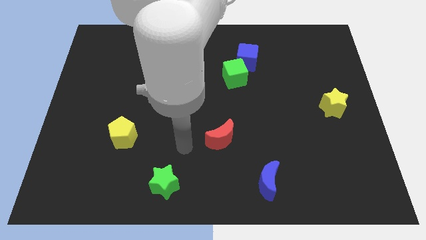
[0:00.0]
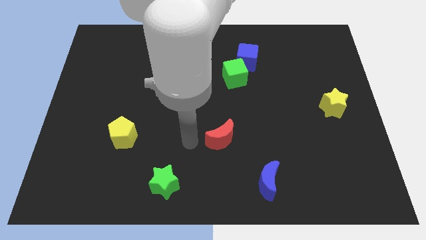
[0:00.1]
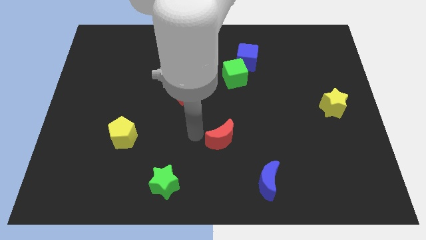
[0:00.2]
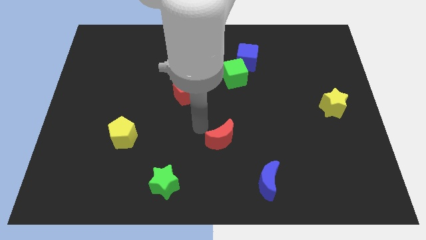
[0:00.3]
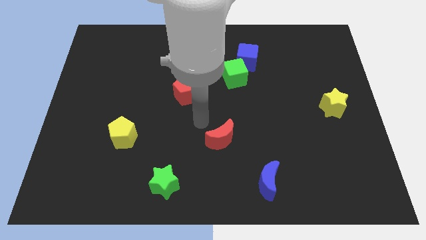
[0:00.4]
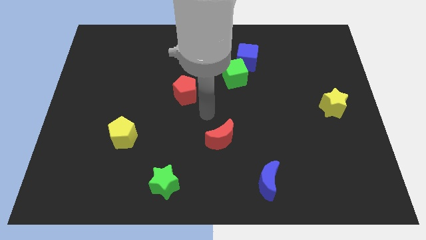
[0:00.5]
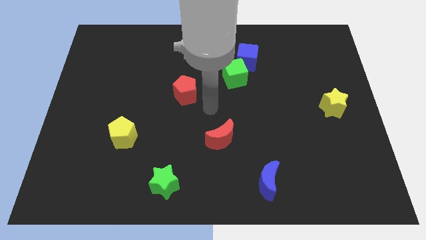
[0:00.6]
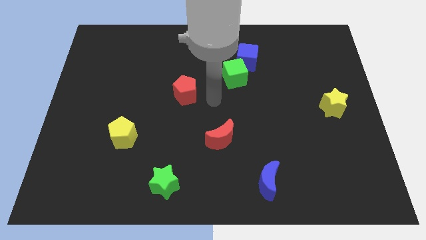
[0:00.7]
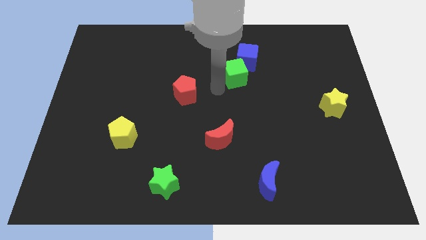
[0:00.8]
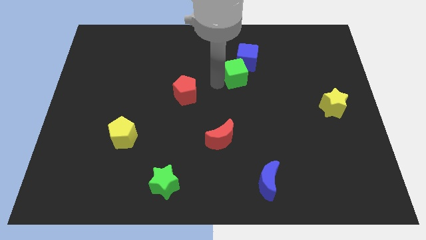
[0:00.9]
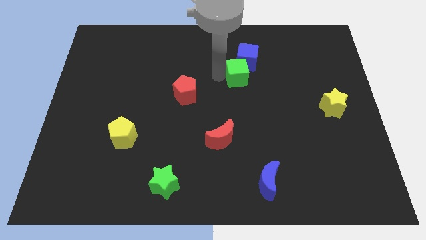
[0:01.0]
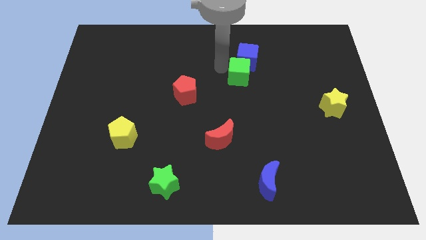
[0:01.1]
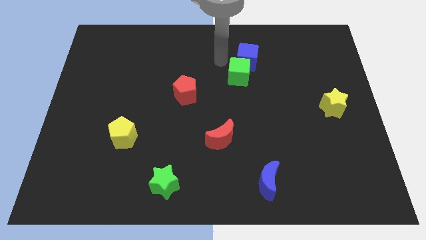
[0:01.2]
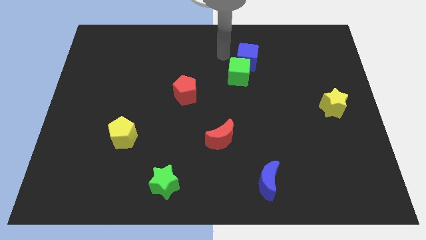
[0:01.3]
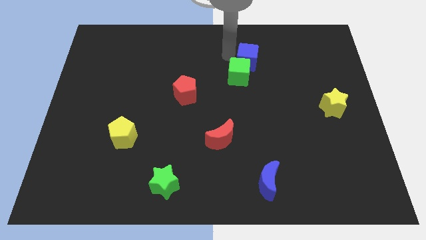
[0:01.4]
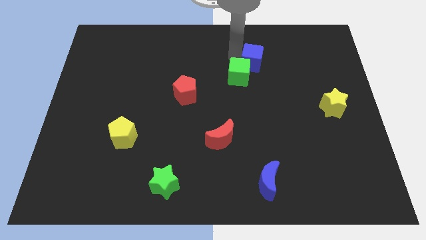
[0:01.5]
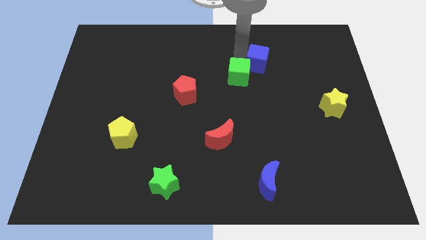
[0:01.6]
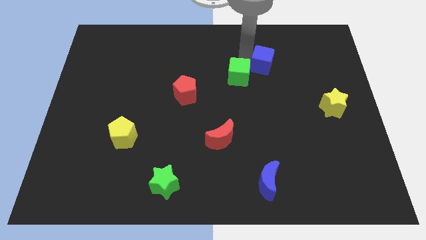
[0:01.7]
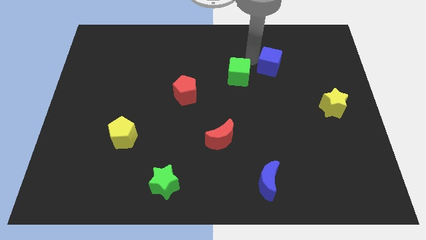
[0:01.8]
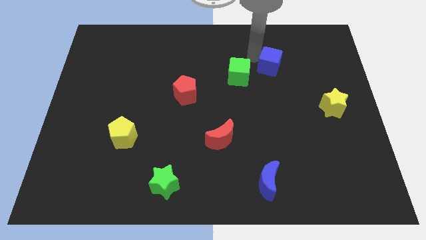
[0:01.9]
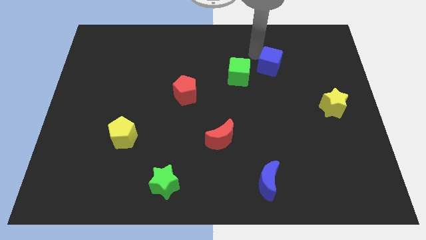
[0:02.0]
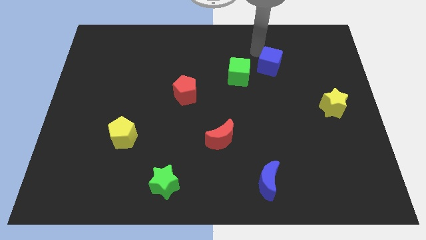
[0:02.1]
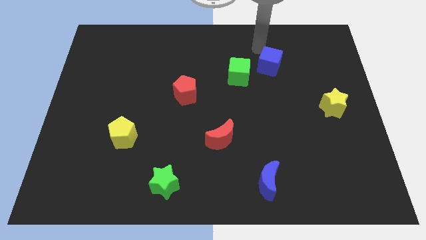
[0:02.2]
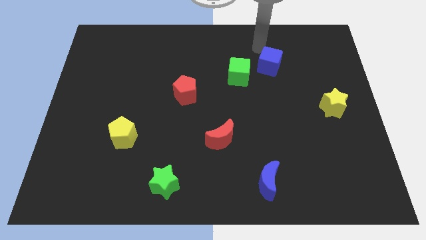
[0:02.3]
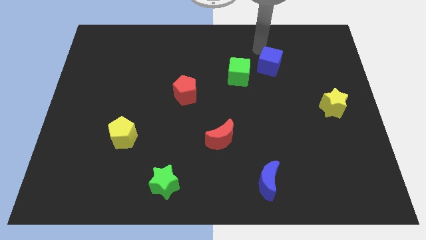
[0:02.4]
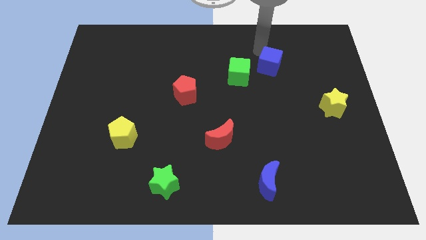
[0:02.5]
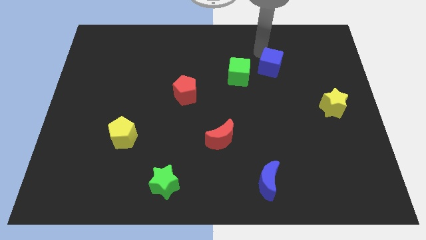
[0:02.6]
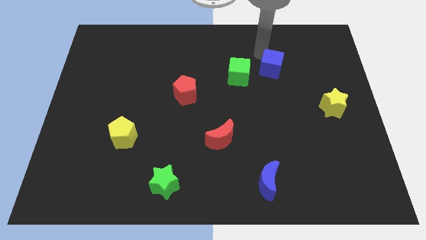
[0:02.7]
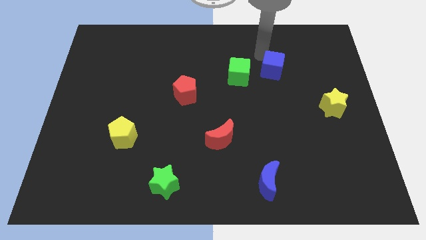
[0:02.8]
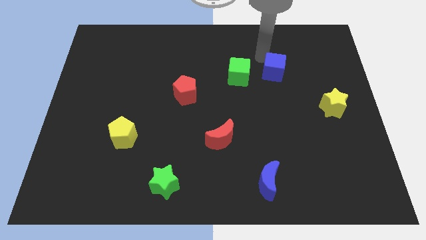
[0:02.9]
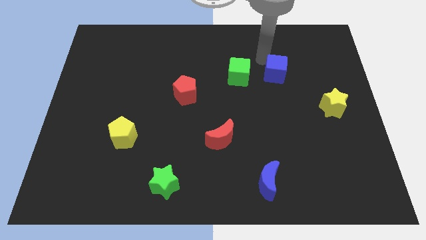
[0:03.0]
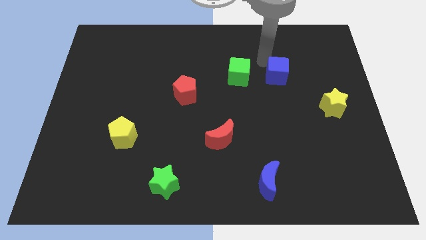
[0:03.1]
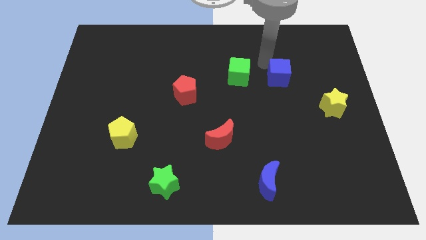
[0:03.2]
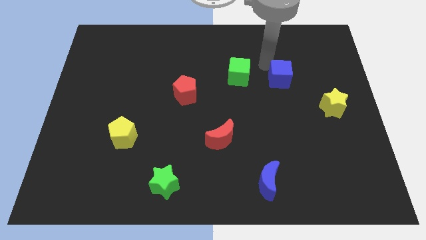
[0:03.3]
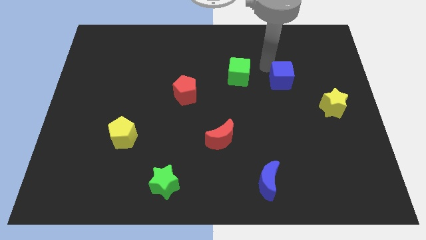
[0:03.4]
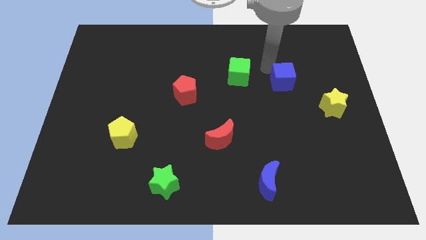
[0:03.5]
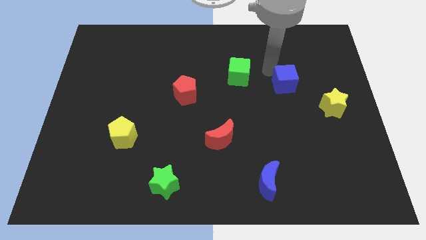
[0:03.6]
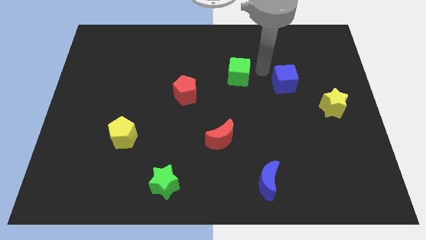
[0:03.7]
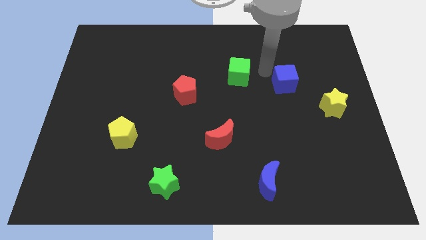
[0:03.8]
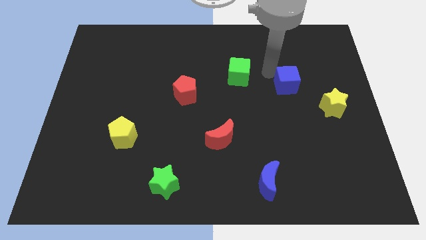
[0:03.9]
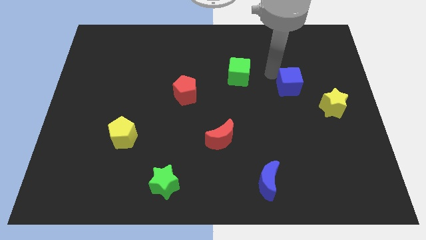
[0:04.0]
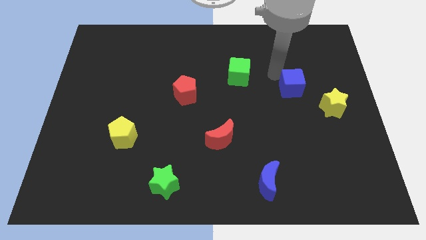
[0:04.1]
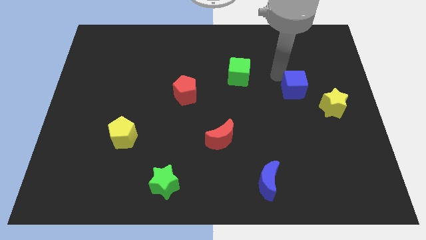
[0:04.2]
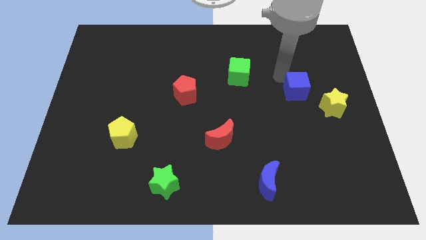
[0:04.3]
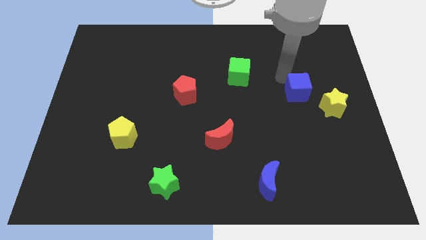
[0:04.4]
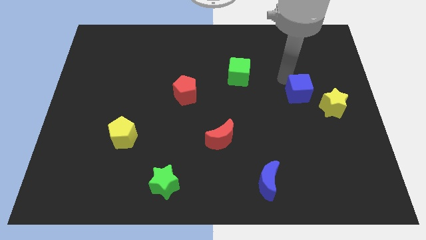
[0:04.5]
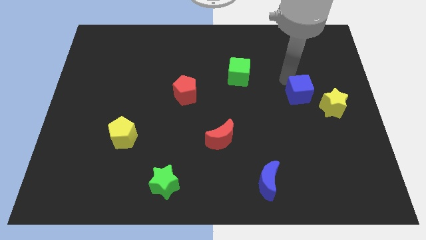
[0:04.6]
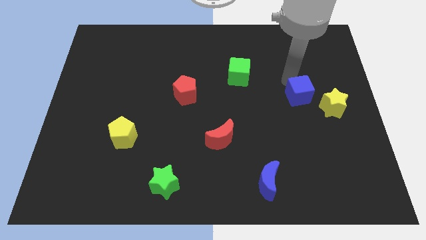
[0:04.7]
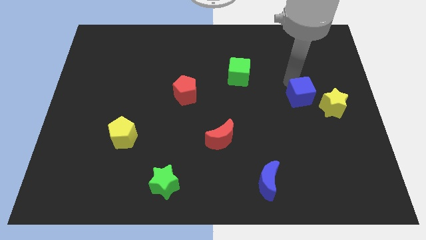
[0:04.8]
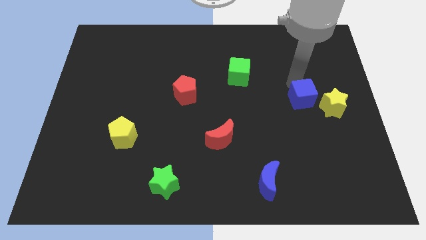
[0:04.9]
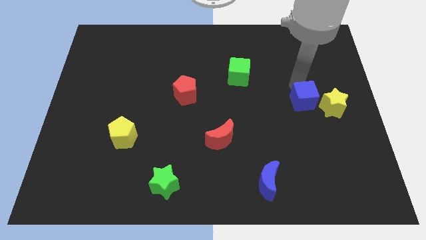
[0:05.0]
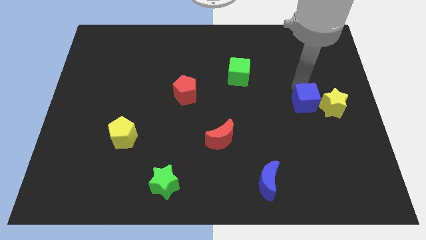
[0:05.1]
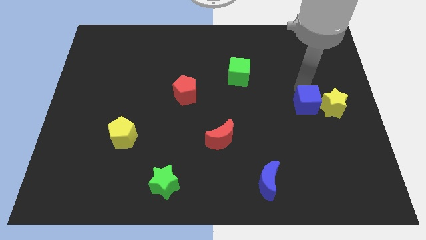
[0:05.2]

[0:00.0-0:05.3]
slide the blue cube next to the yellow star

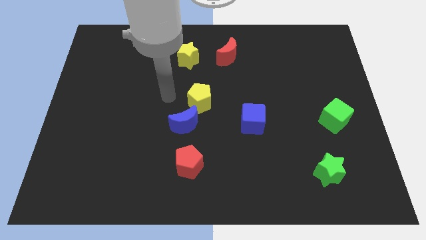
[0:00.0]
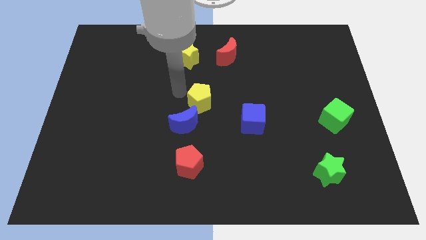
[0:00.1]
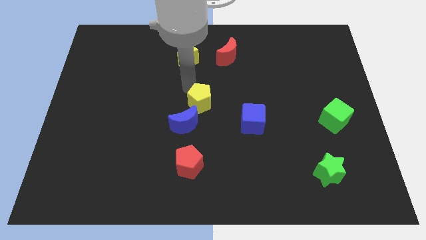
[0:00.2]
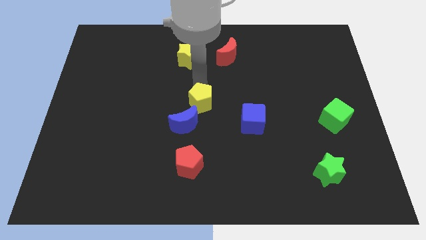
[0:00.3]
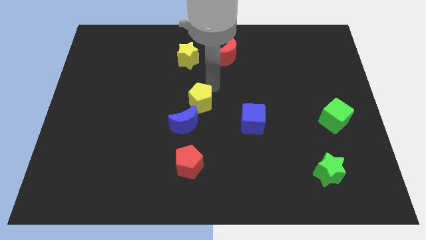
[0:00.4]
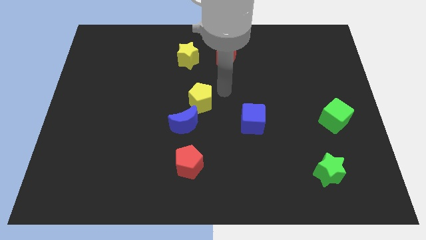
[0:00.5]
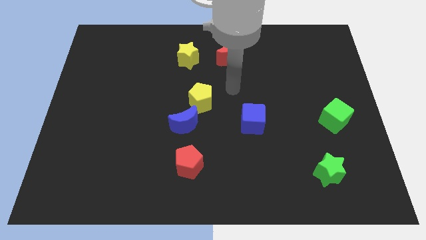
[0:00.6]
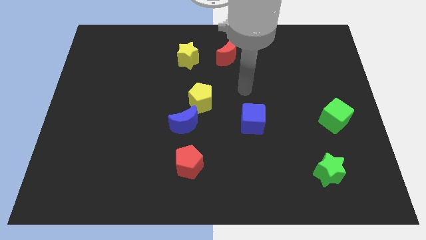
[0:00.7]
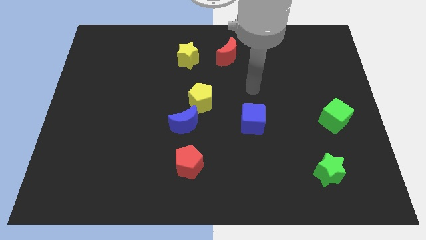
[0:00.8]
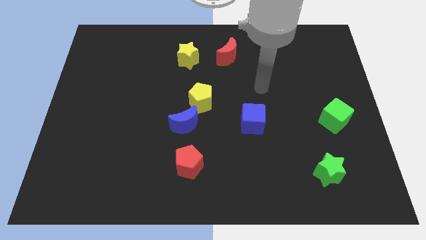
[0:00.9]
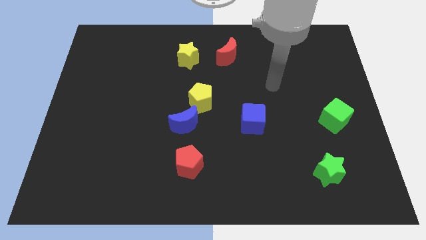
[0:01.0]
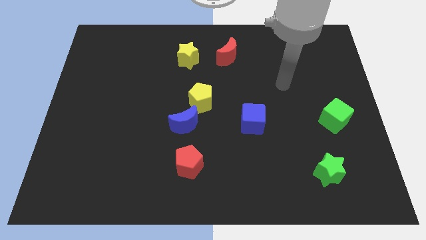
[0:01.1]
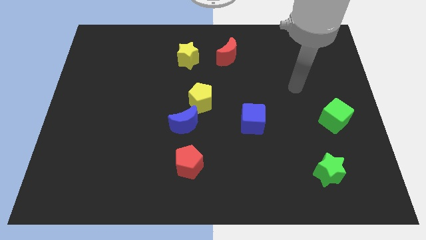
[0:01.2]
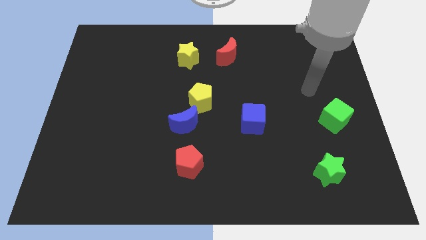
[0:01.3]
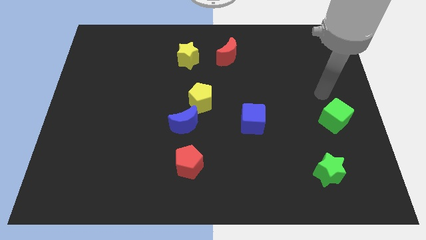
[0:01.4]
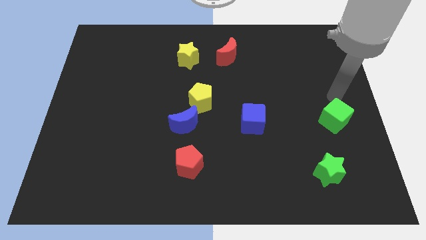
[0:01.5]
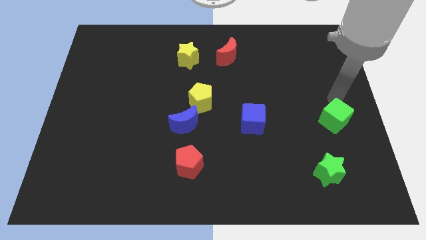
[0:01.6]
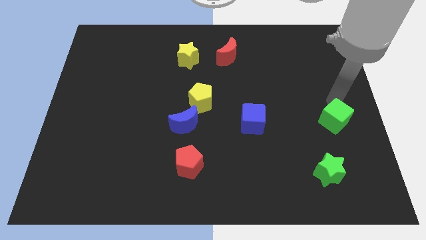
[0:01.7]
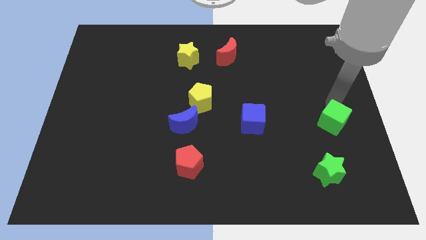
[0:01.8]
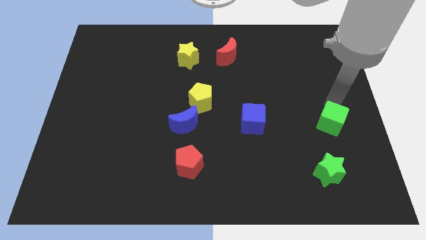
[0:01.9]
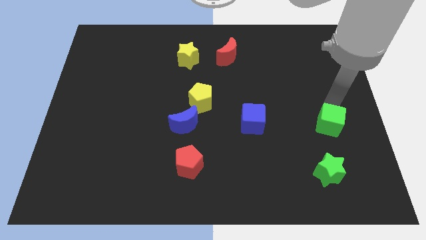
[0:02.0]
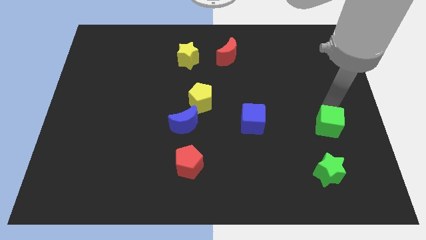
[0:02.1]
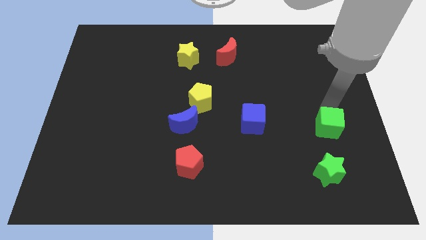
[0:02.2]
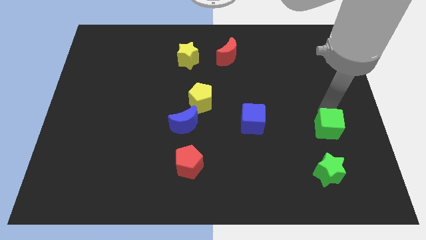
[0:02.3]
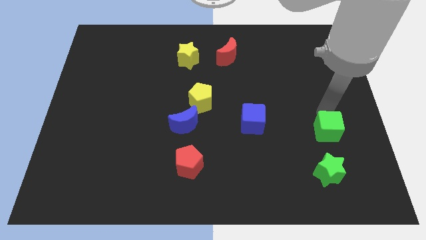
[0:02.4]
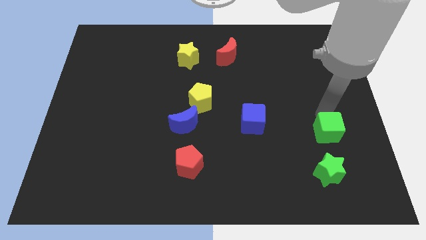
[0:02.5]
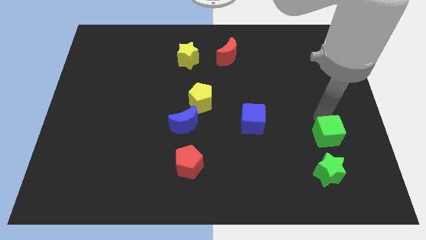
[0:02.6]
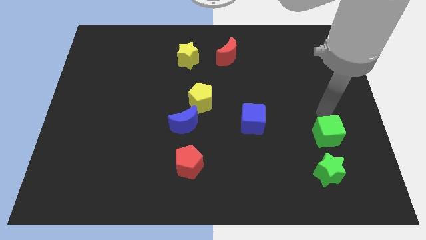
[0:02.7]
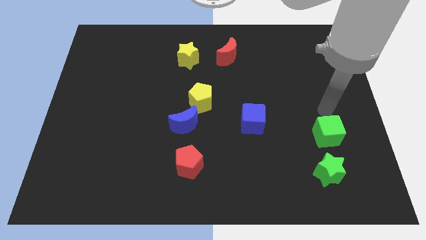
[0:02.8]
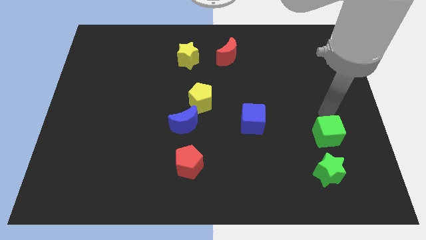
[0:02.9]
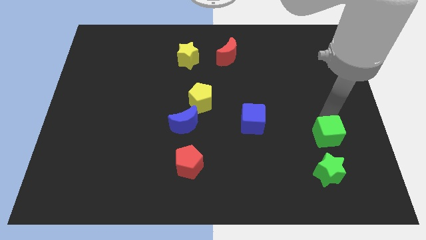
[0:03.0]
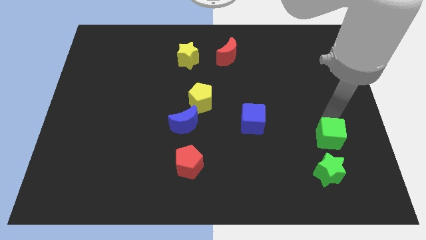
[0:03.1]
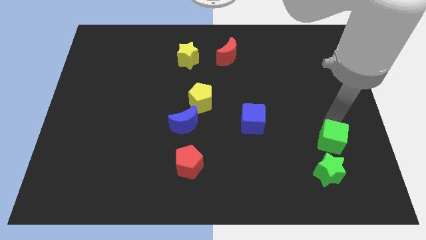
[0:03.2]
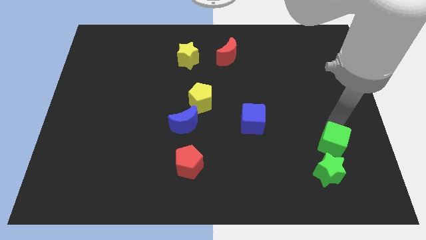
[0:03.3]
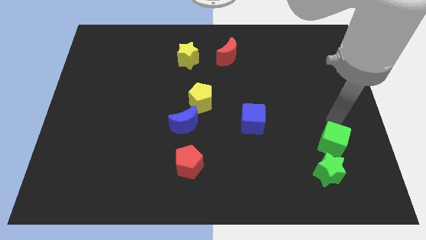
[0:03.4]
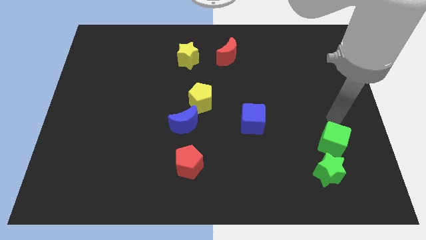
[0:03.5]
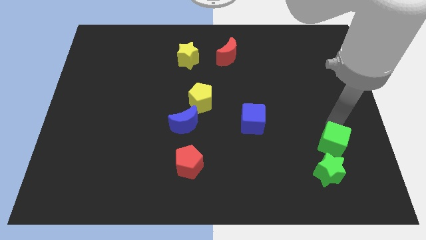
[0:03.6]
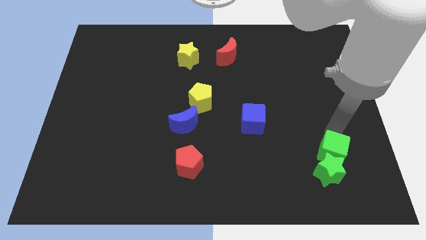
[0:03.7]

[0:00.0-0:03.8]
push the green cube to the green star
